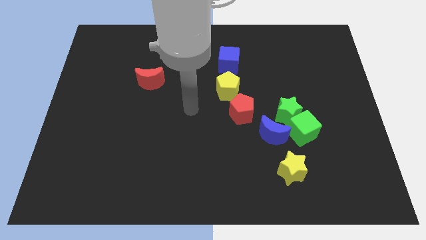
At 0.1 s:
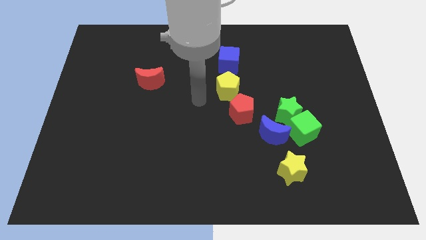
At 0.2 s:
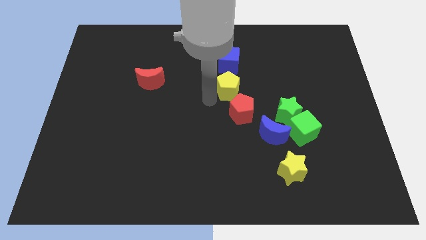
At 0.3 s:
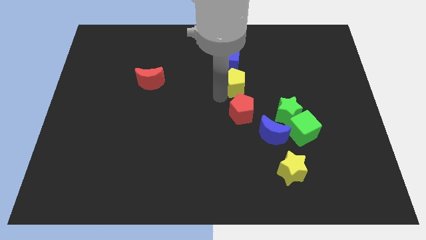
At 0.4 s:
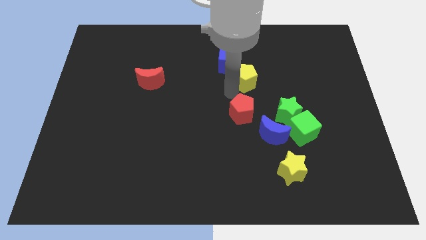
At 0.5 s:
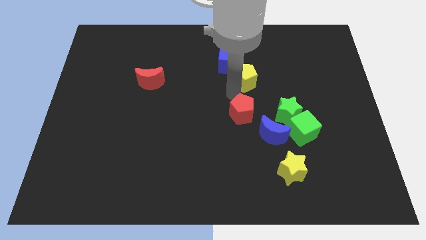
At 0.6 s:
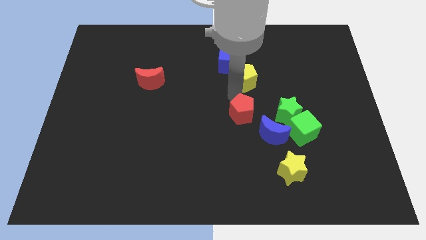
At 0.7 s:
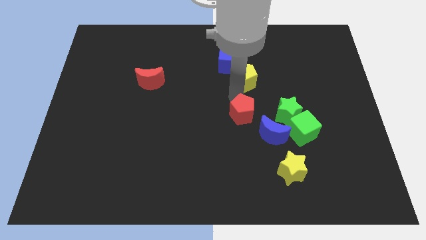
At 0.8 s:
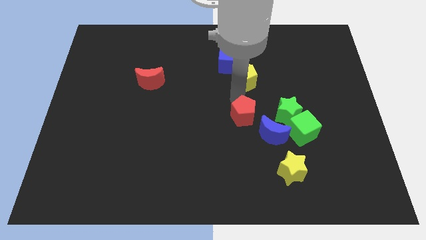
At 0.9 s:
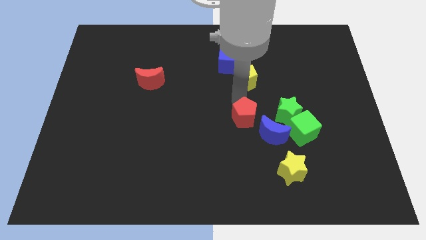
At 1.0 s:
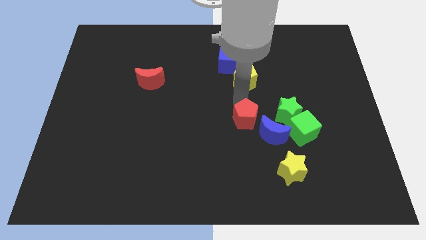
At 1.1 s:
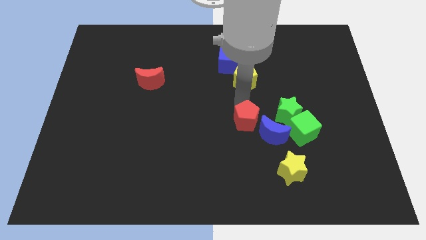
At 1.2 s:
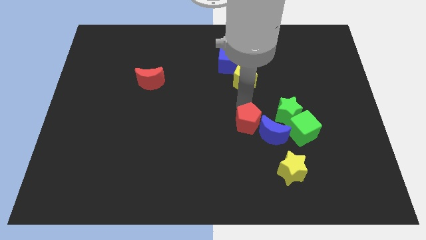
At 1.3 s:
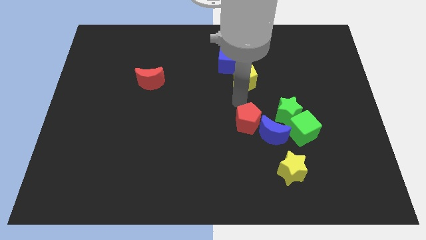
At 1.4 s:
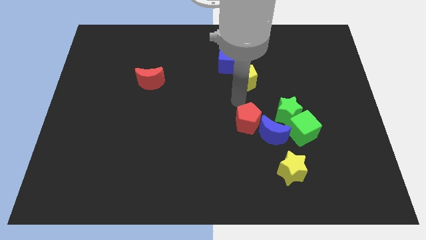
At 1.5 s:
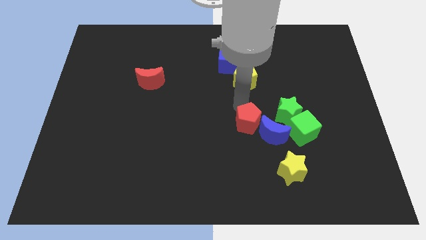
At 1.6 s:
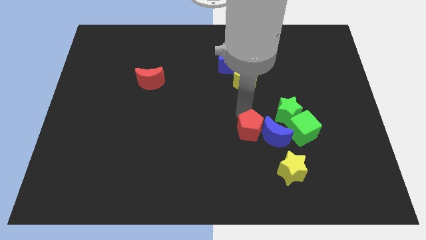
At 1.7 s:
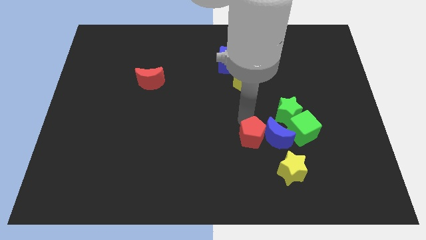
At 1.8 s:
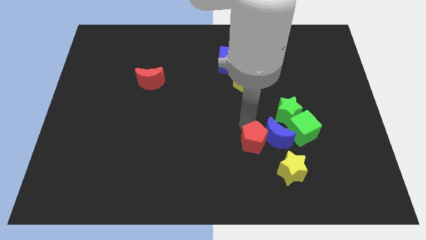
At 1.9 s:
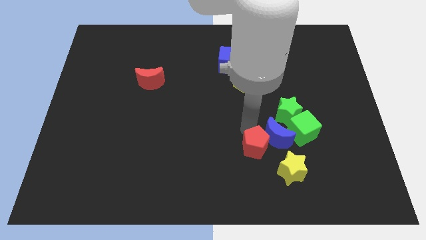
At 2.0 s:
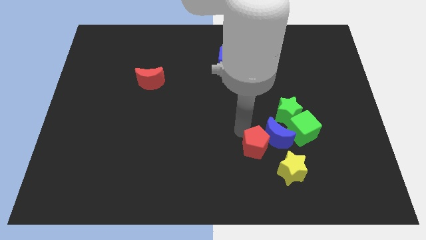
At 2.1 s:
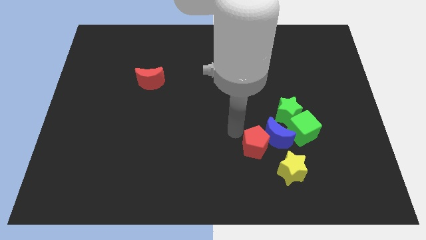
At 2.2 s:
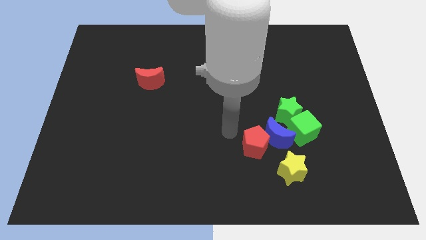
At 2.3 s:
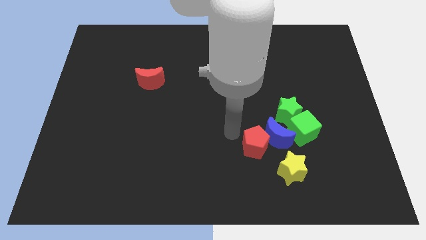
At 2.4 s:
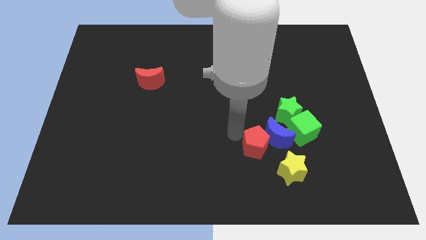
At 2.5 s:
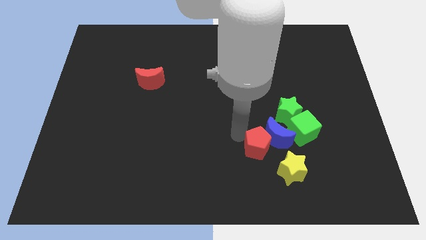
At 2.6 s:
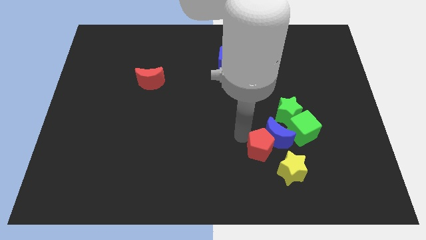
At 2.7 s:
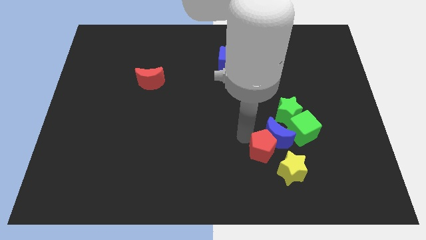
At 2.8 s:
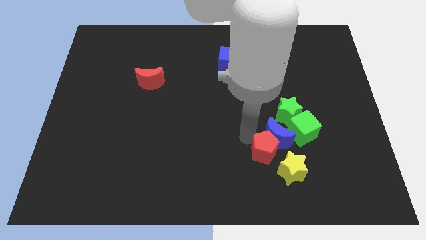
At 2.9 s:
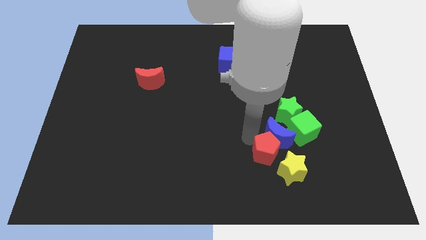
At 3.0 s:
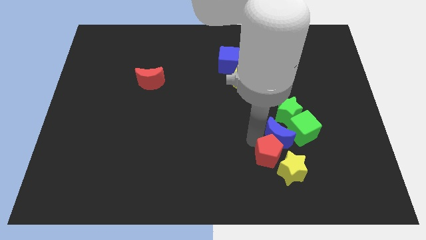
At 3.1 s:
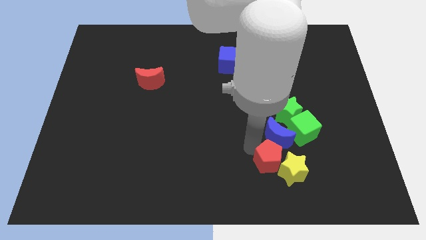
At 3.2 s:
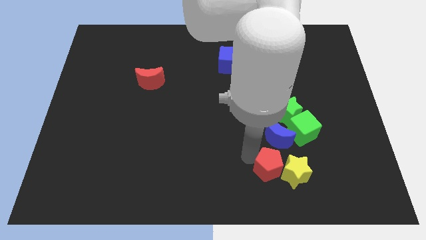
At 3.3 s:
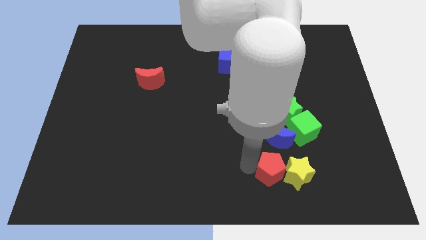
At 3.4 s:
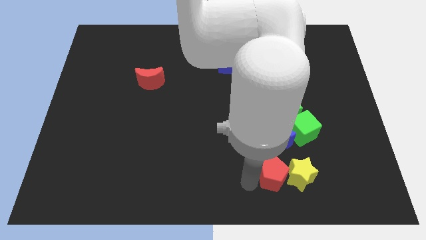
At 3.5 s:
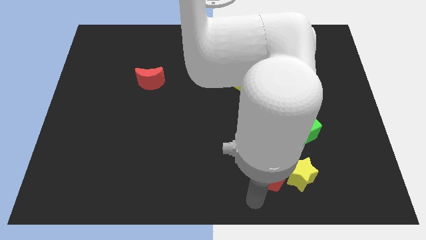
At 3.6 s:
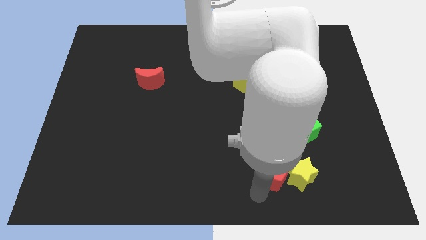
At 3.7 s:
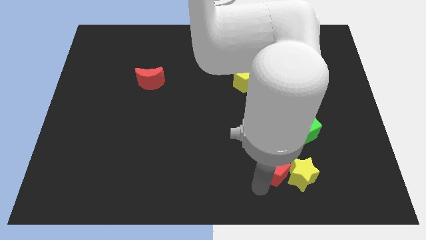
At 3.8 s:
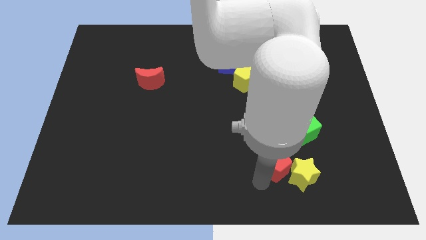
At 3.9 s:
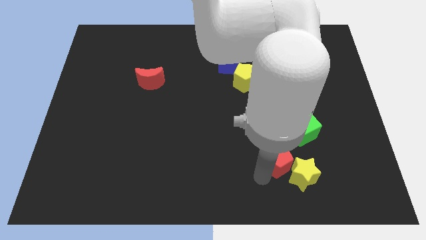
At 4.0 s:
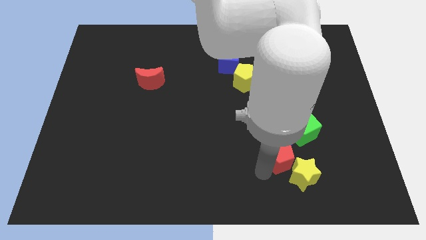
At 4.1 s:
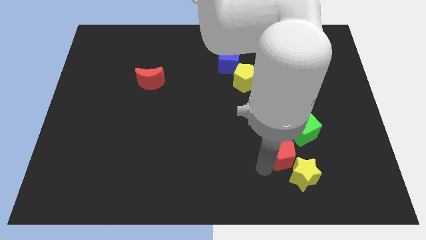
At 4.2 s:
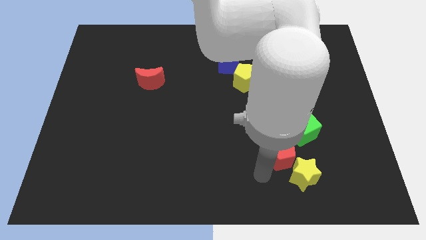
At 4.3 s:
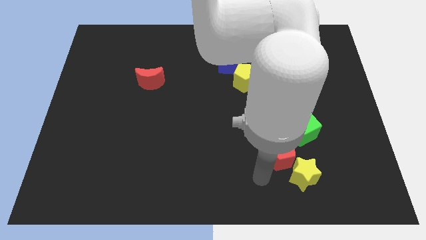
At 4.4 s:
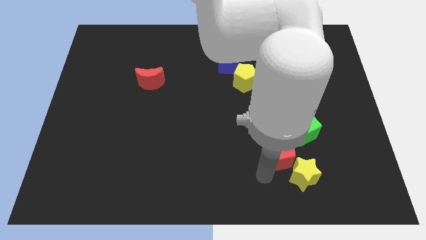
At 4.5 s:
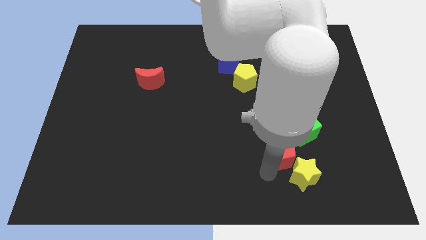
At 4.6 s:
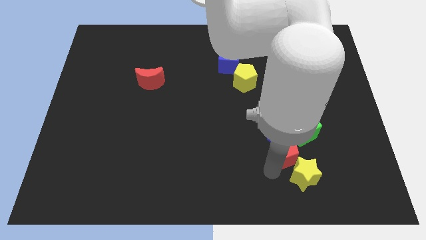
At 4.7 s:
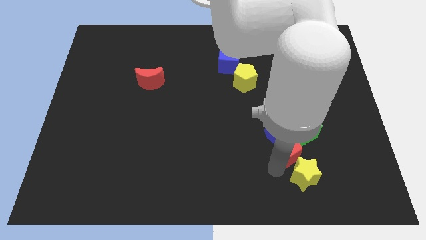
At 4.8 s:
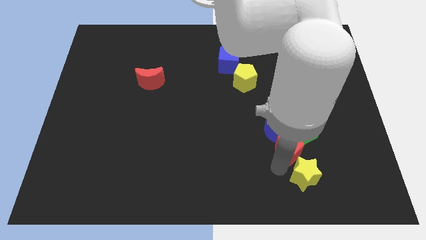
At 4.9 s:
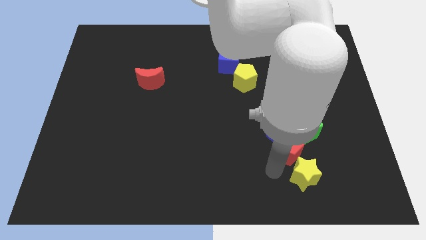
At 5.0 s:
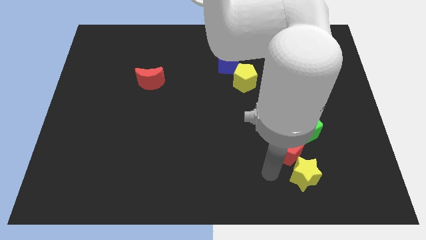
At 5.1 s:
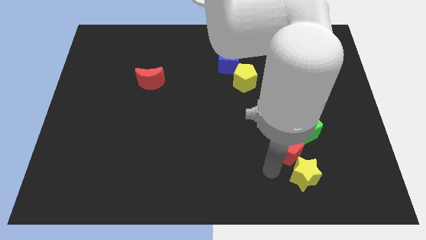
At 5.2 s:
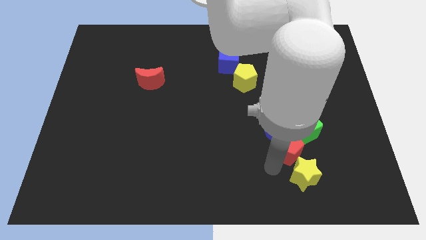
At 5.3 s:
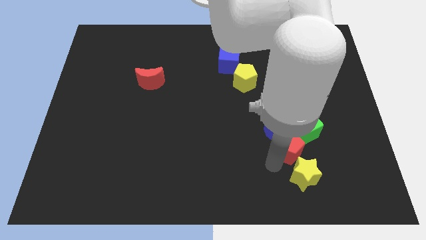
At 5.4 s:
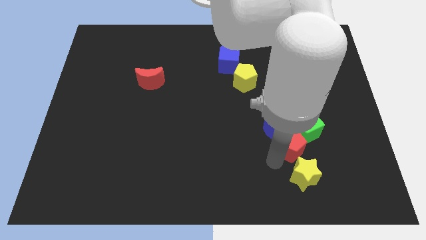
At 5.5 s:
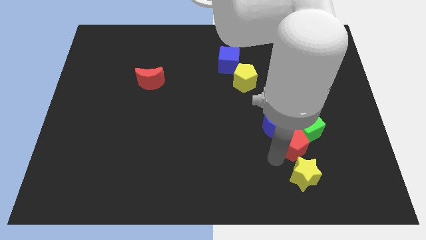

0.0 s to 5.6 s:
move the red pentagon next to the green cube
